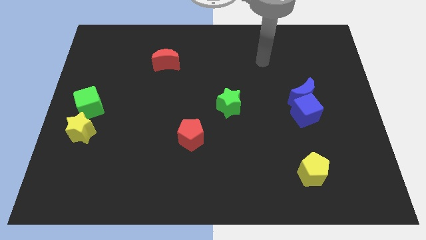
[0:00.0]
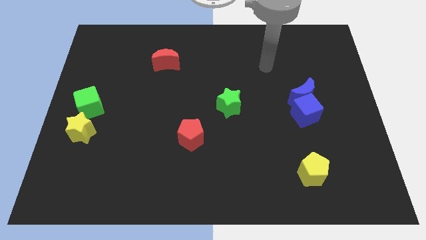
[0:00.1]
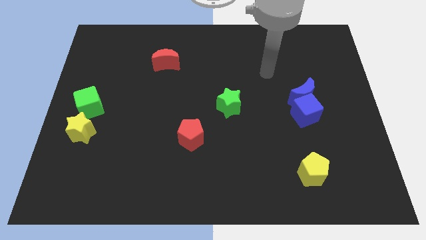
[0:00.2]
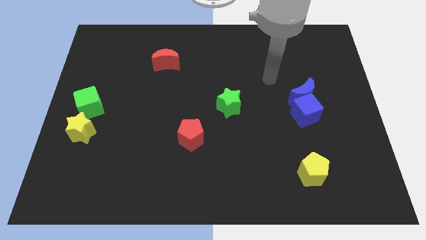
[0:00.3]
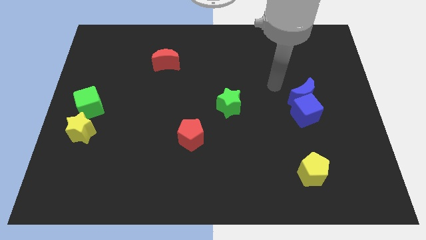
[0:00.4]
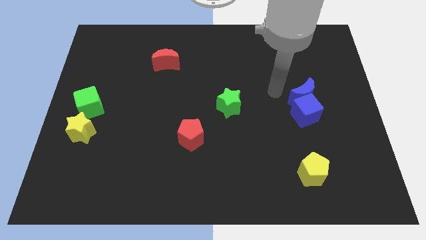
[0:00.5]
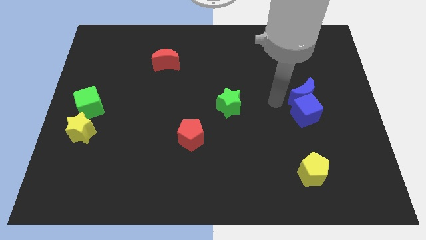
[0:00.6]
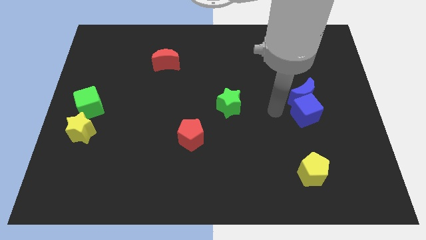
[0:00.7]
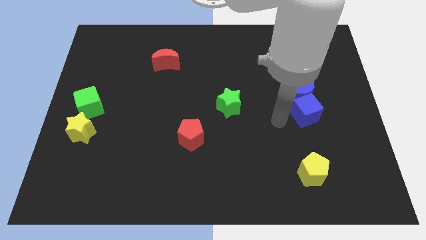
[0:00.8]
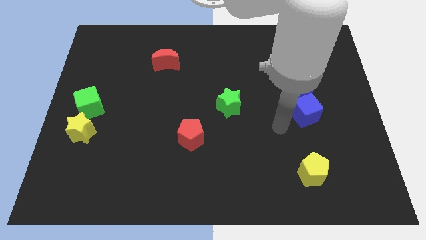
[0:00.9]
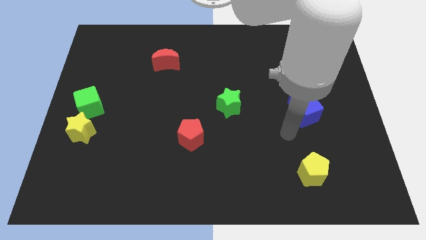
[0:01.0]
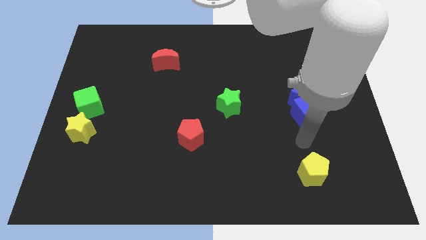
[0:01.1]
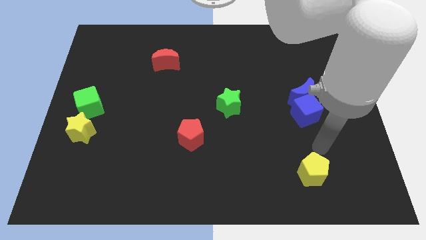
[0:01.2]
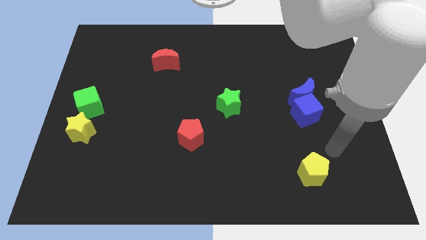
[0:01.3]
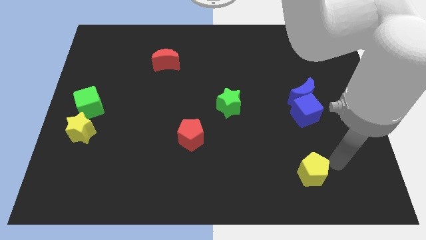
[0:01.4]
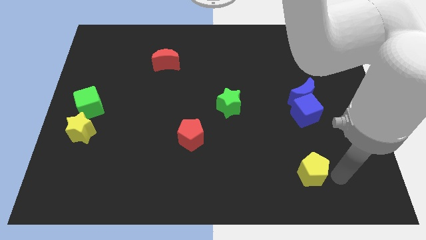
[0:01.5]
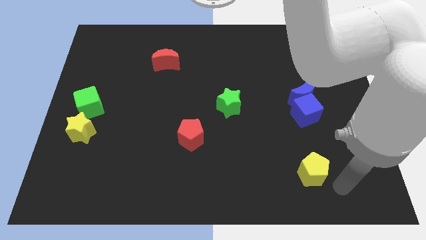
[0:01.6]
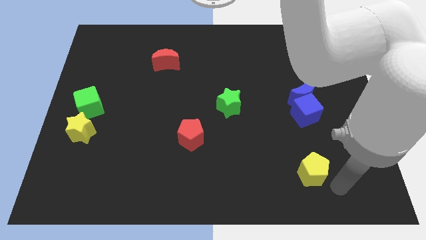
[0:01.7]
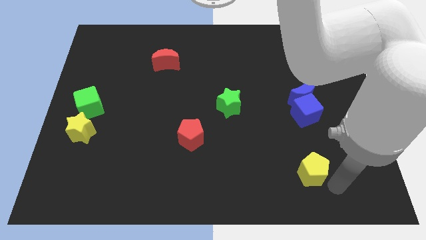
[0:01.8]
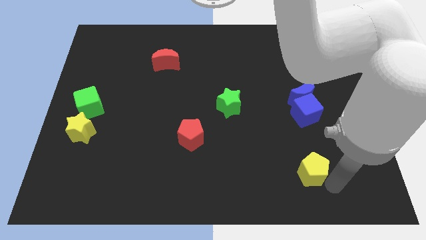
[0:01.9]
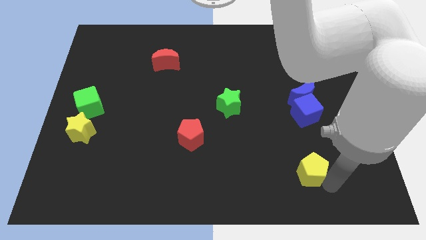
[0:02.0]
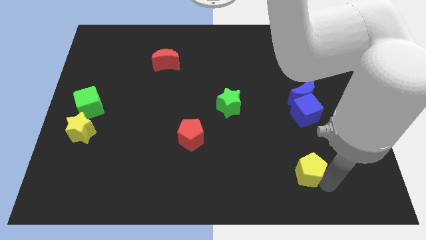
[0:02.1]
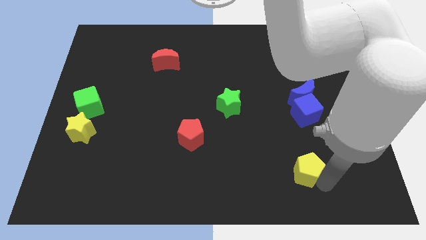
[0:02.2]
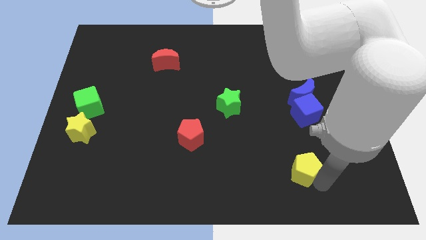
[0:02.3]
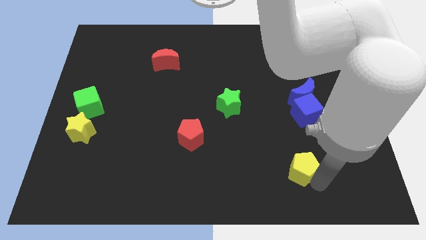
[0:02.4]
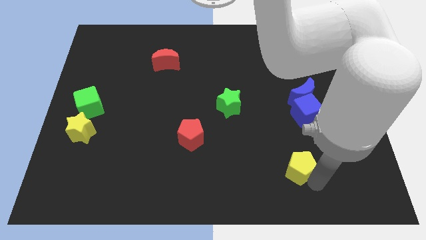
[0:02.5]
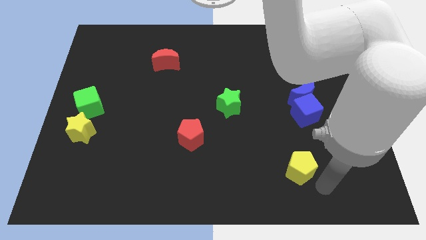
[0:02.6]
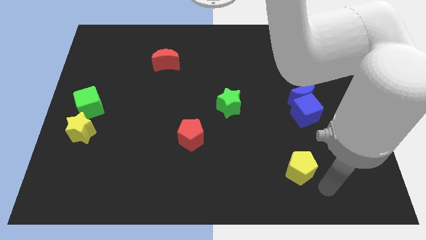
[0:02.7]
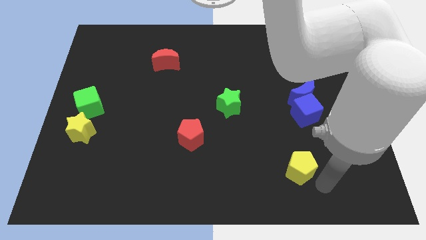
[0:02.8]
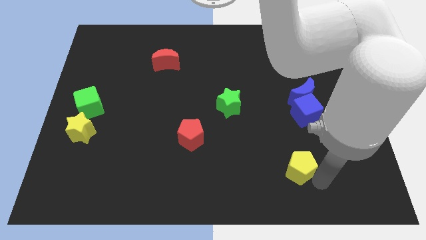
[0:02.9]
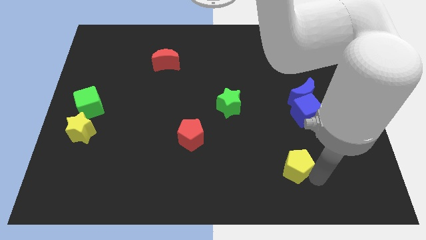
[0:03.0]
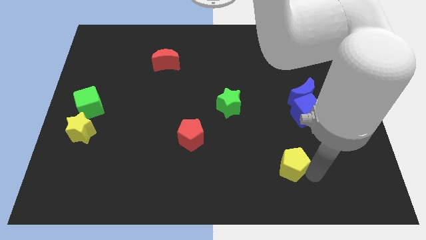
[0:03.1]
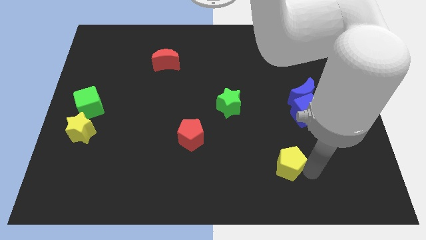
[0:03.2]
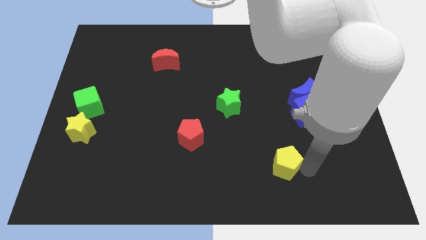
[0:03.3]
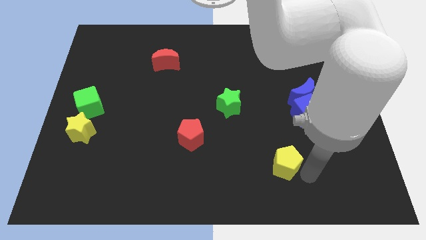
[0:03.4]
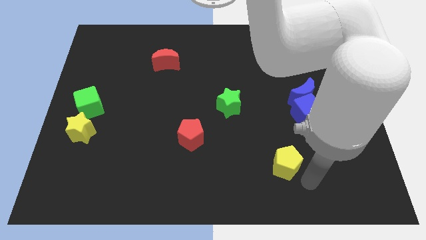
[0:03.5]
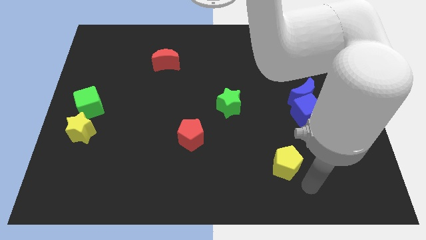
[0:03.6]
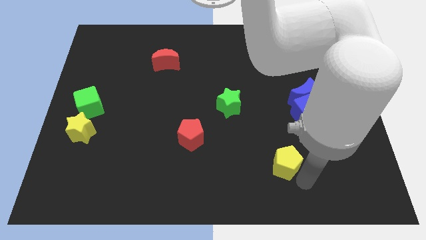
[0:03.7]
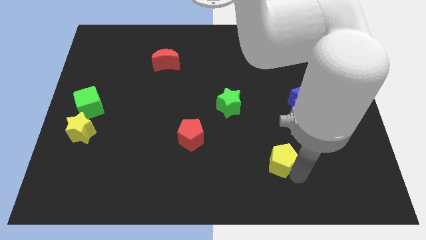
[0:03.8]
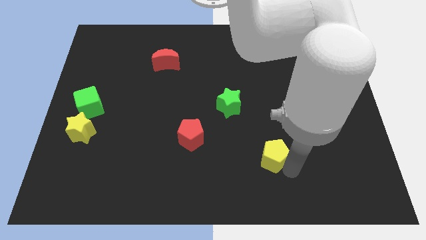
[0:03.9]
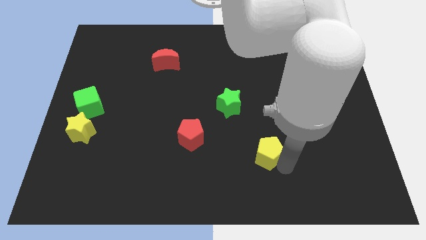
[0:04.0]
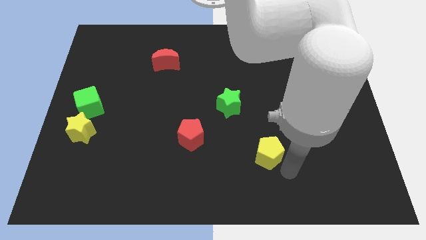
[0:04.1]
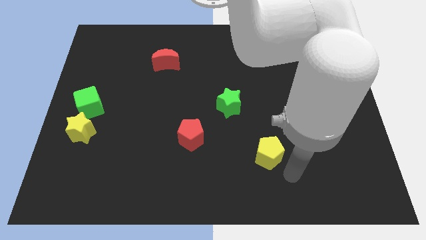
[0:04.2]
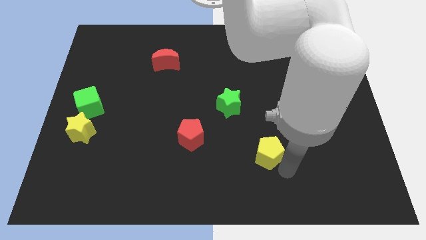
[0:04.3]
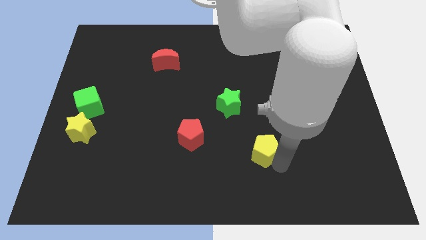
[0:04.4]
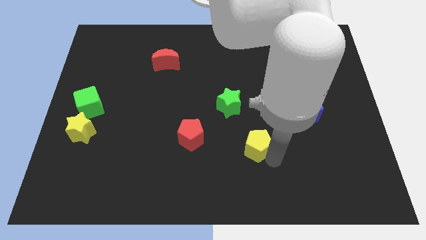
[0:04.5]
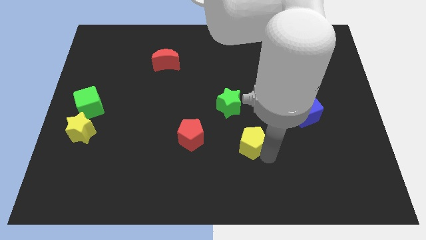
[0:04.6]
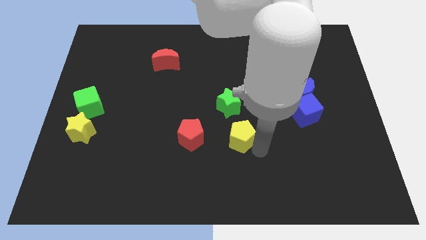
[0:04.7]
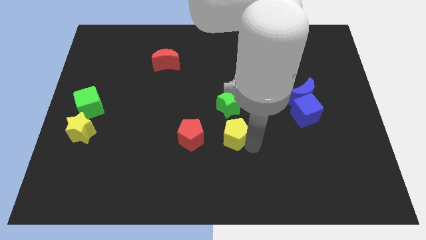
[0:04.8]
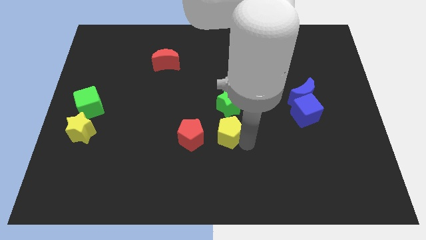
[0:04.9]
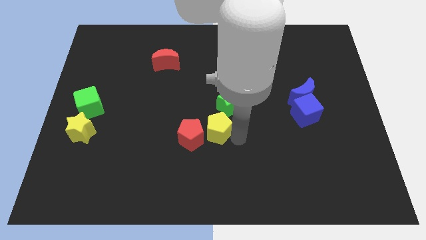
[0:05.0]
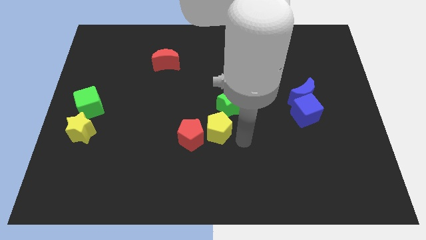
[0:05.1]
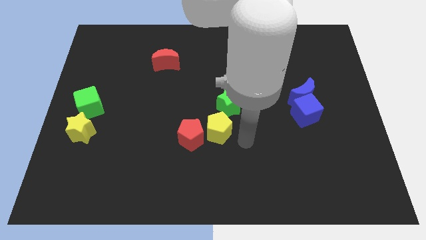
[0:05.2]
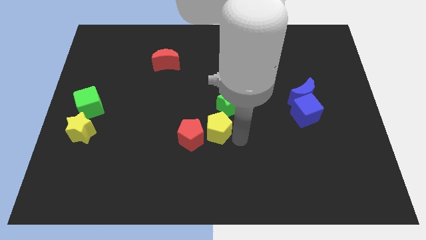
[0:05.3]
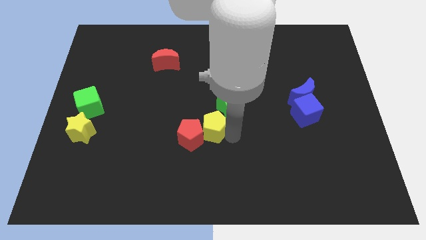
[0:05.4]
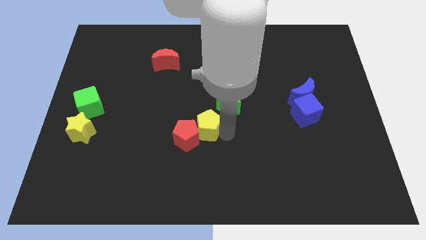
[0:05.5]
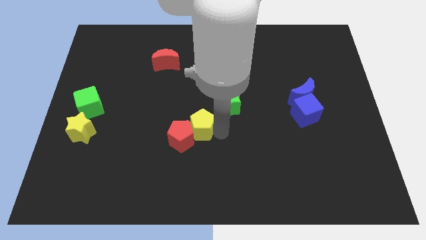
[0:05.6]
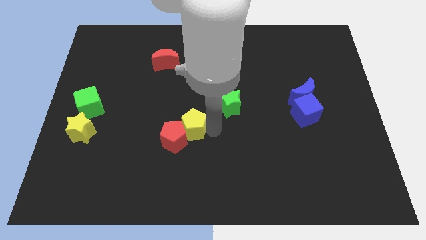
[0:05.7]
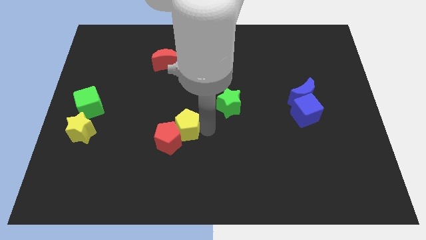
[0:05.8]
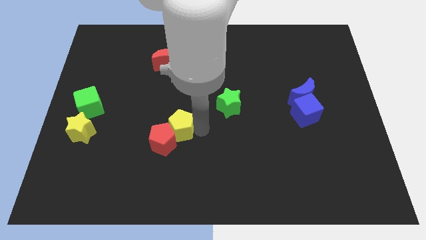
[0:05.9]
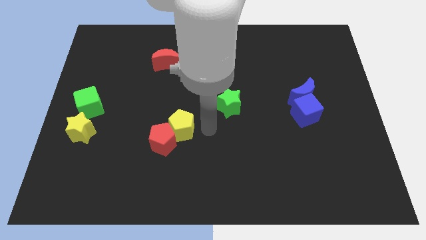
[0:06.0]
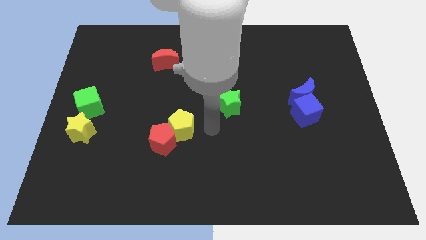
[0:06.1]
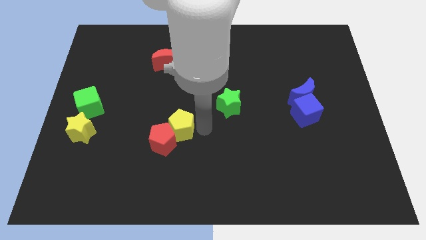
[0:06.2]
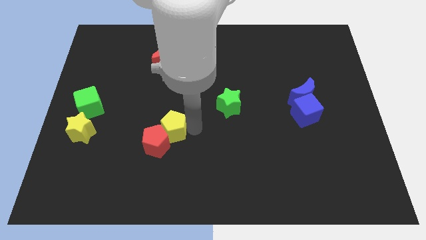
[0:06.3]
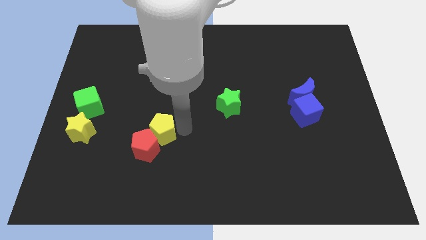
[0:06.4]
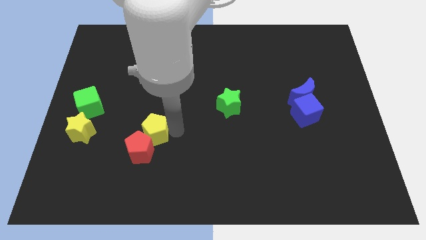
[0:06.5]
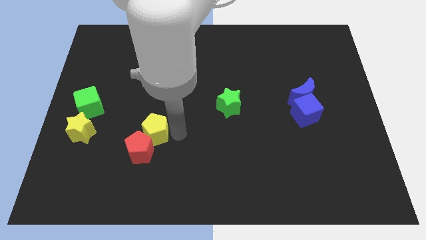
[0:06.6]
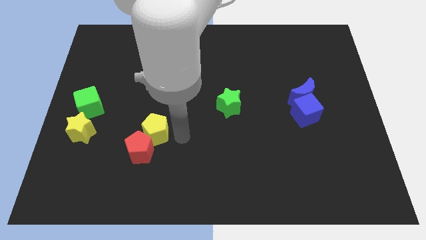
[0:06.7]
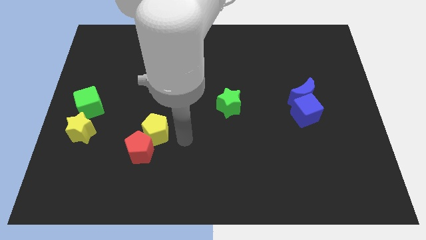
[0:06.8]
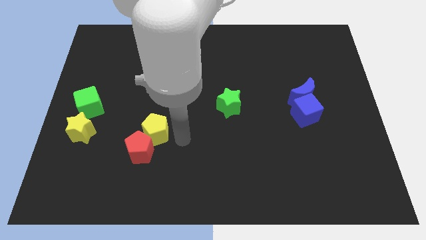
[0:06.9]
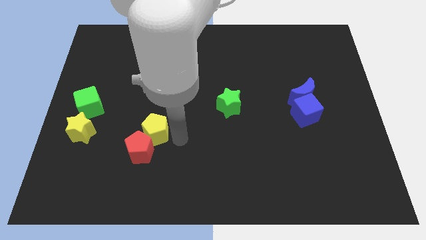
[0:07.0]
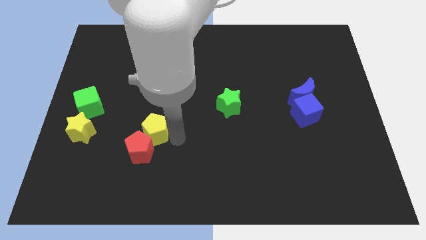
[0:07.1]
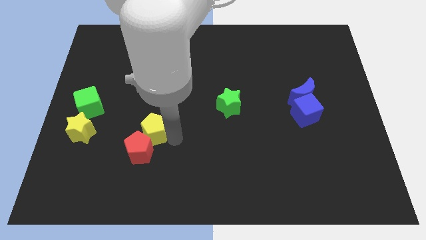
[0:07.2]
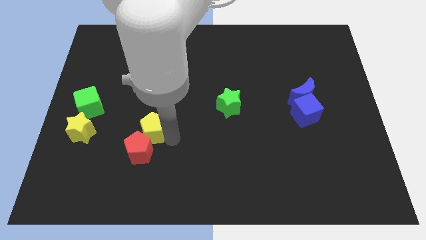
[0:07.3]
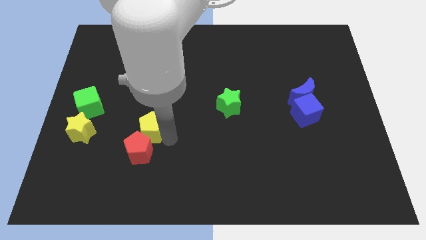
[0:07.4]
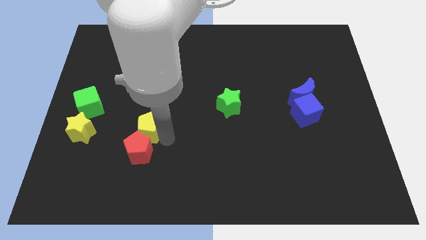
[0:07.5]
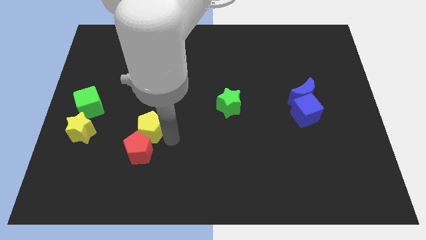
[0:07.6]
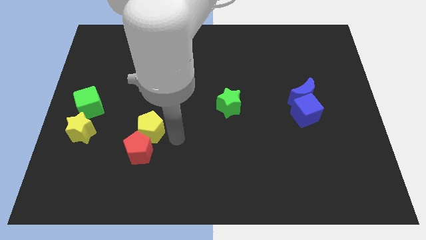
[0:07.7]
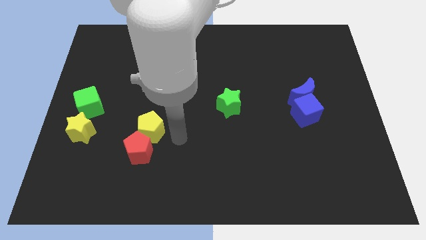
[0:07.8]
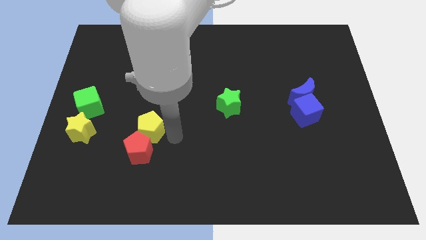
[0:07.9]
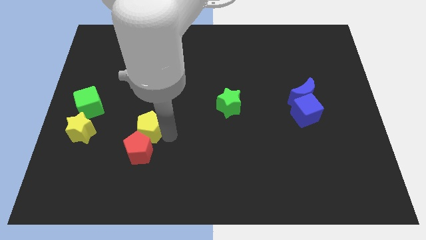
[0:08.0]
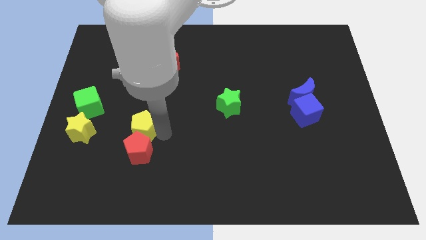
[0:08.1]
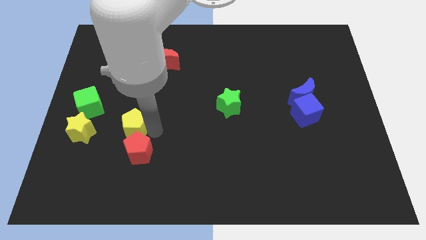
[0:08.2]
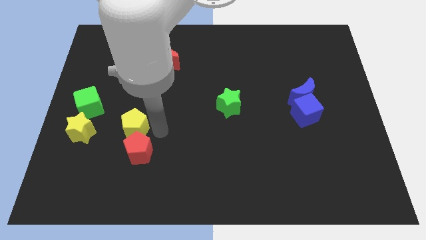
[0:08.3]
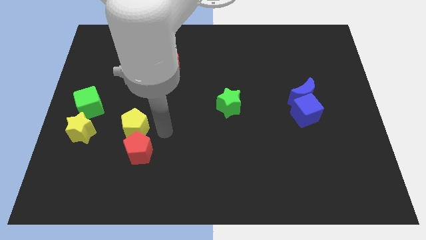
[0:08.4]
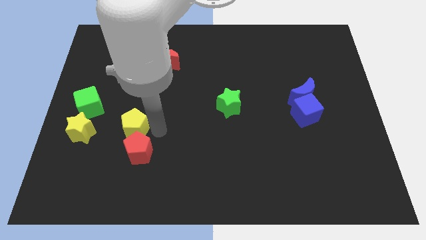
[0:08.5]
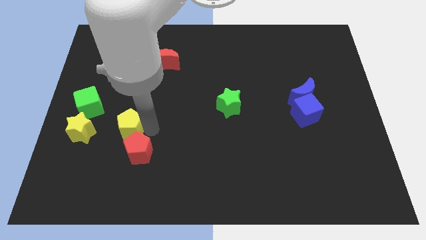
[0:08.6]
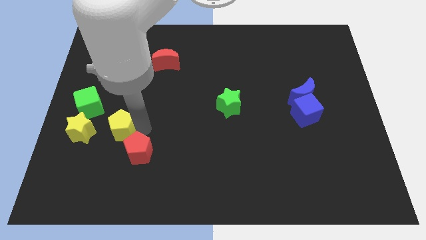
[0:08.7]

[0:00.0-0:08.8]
slide the yellow pentagon diagonally down and to the right of the green cube
